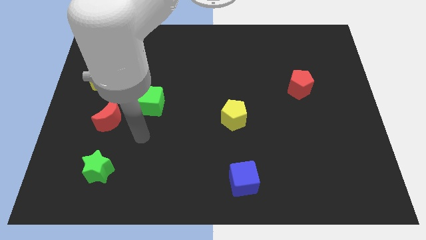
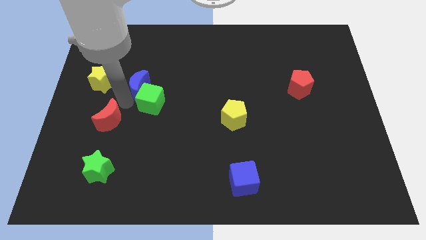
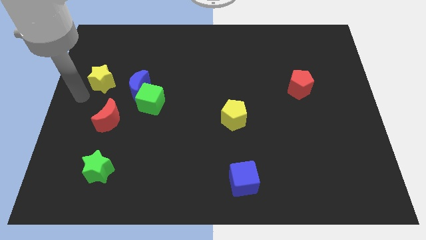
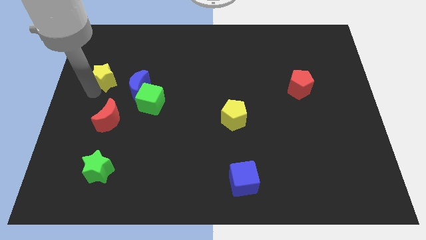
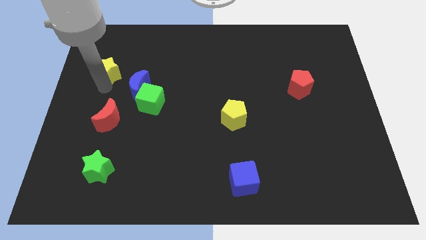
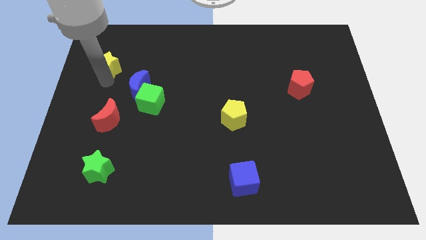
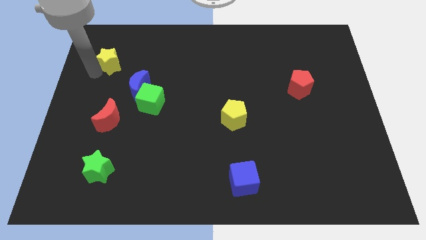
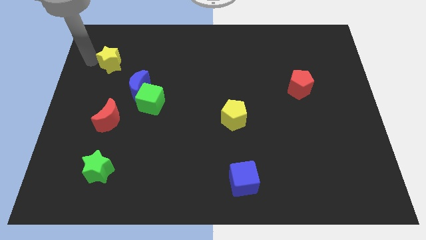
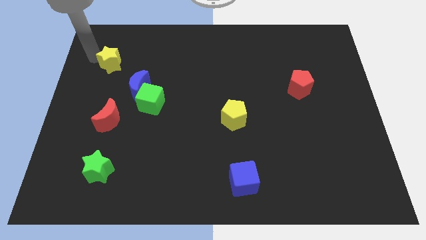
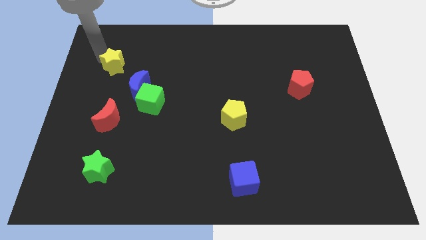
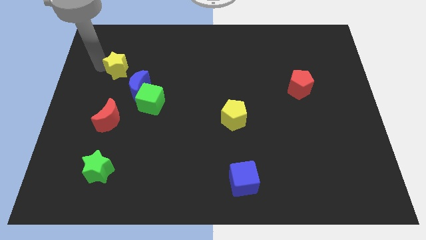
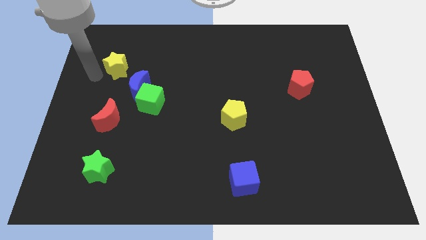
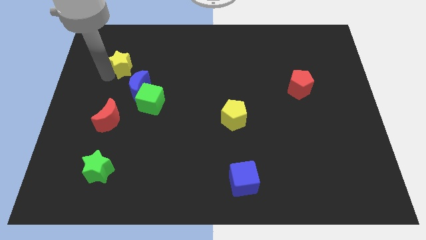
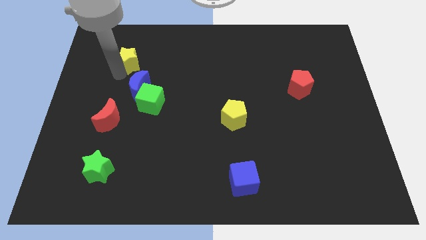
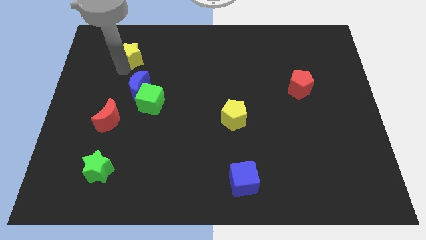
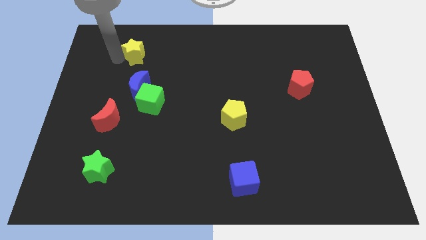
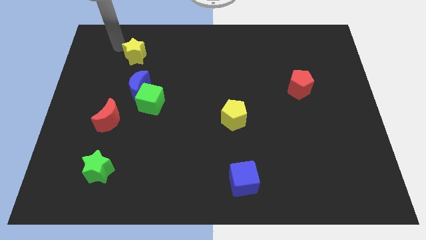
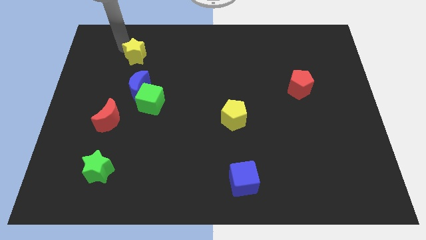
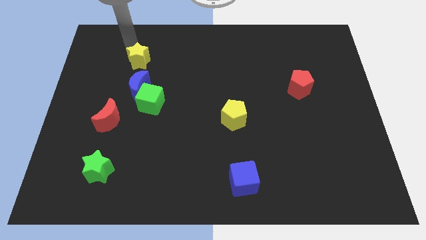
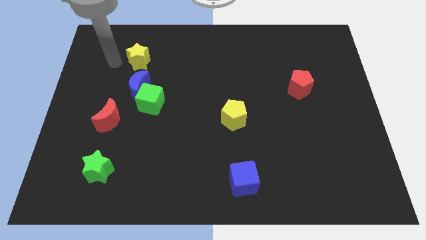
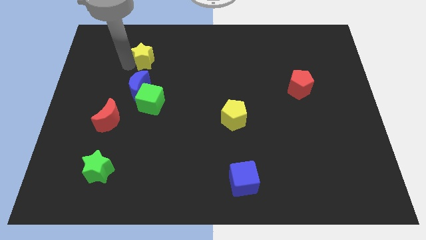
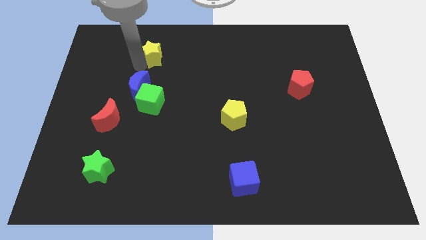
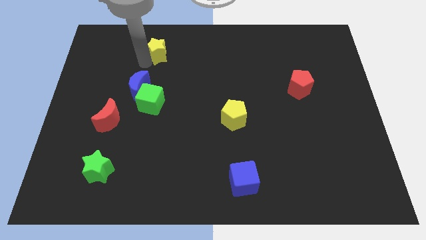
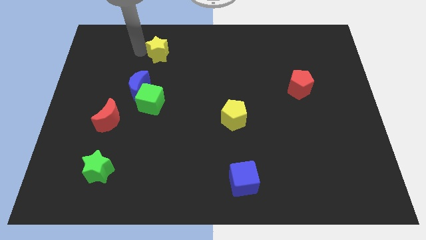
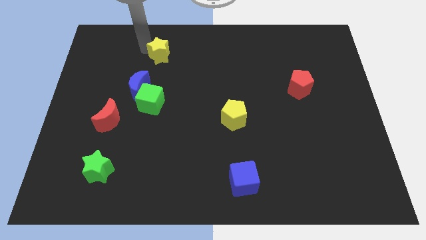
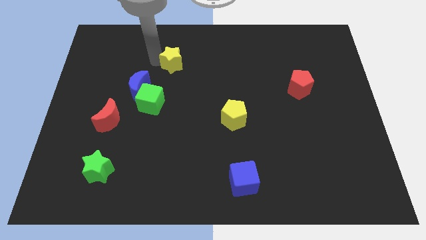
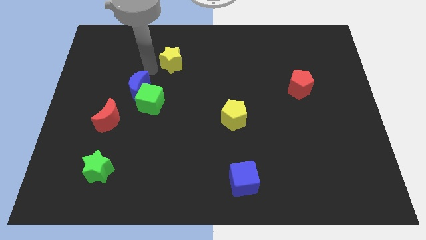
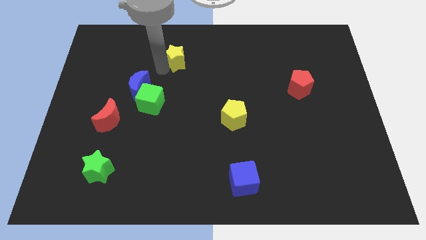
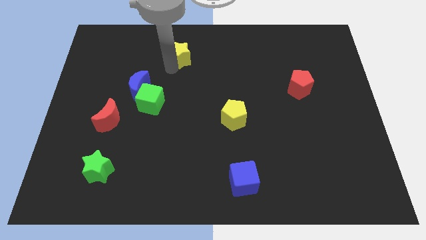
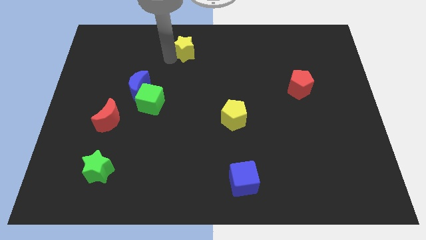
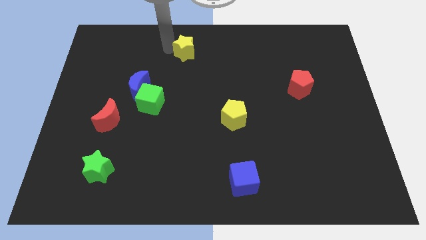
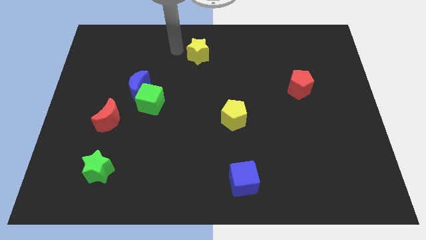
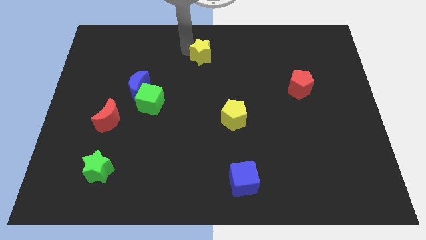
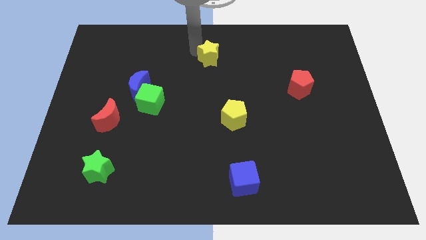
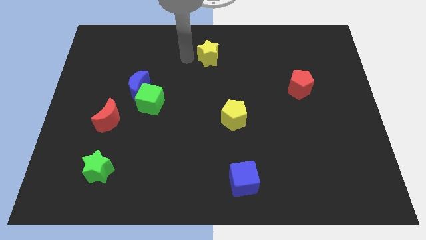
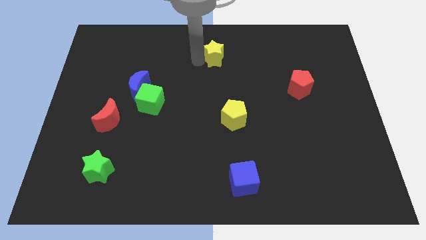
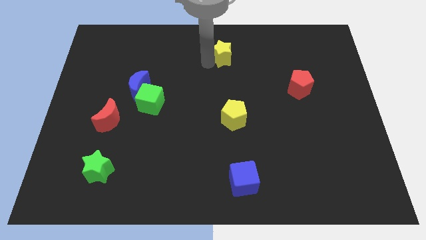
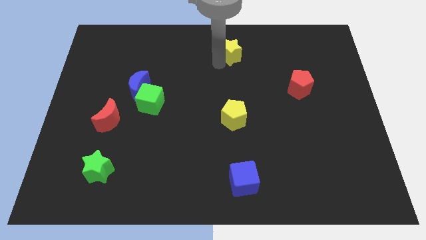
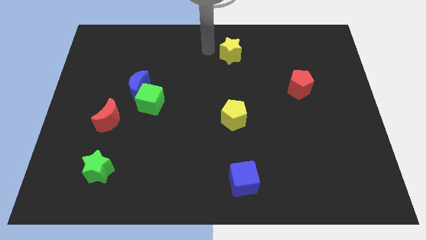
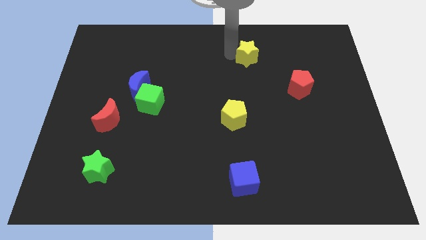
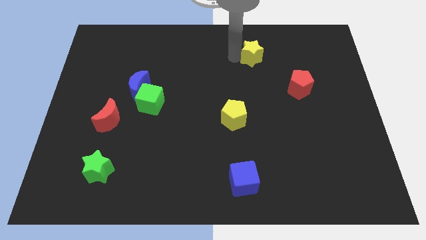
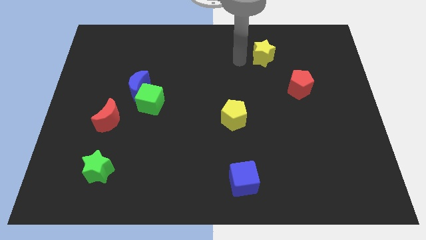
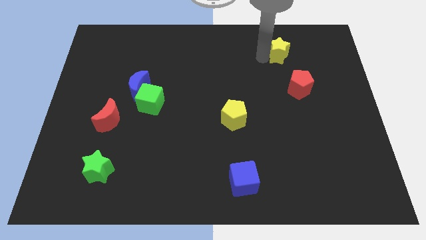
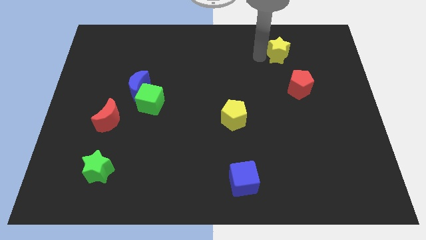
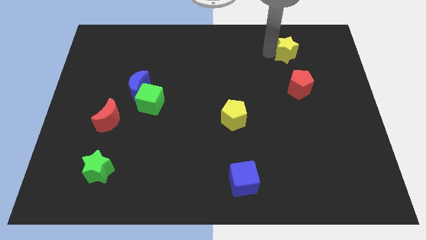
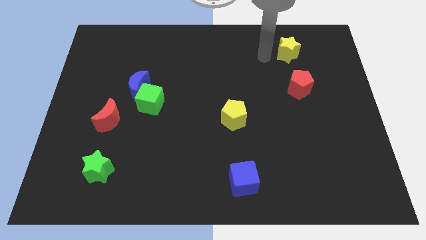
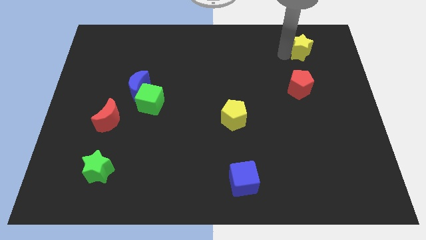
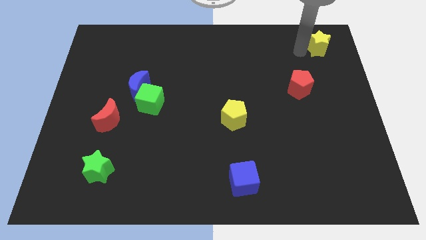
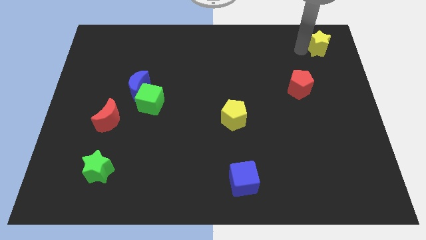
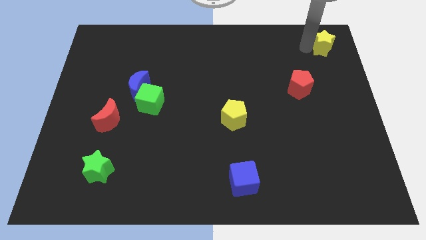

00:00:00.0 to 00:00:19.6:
move the yellow star to the upper right corner

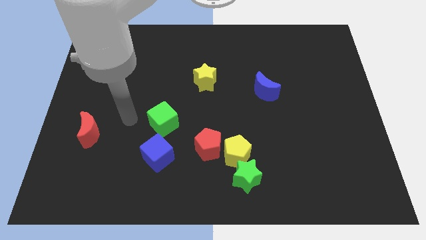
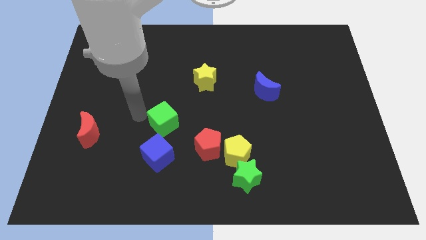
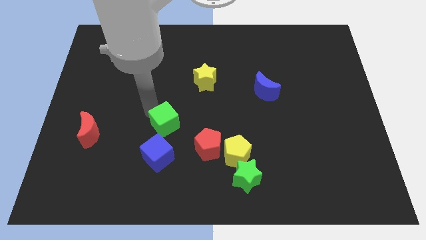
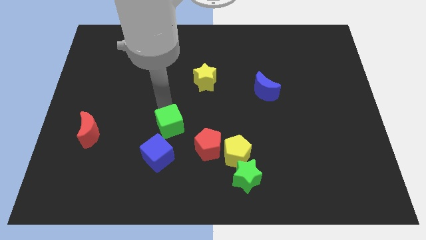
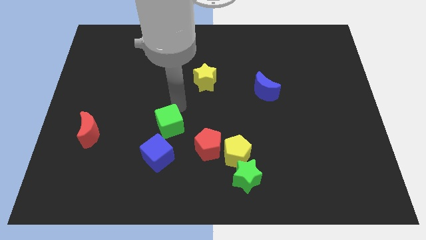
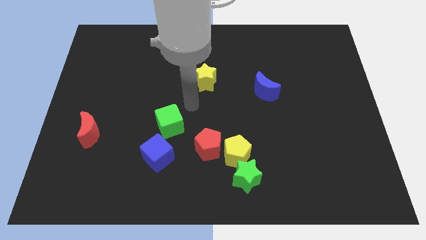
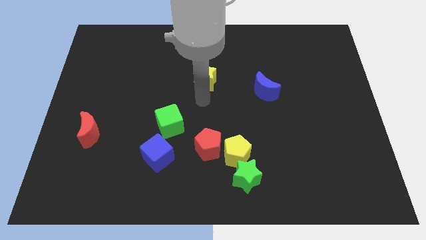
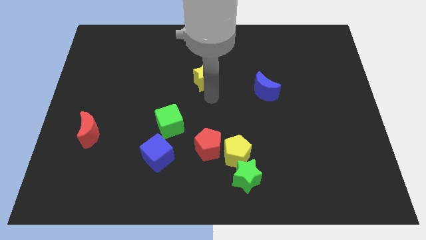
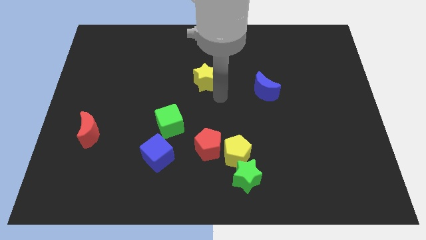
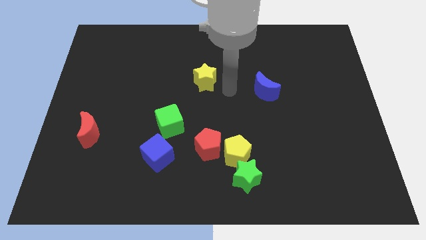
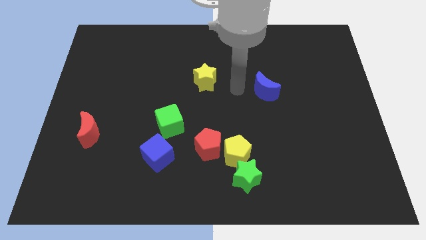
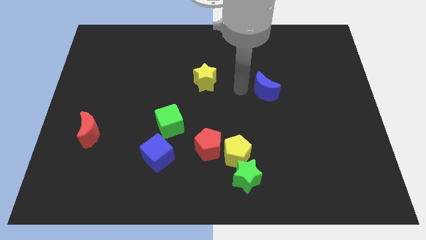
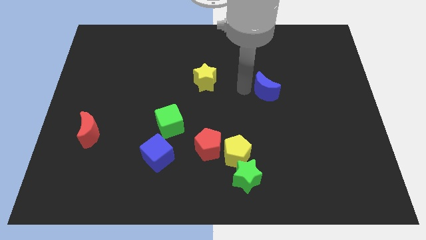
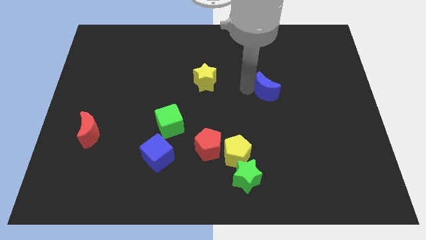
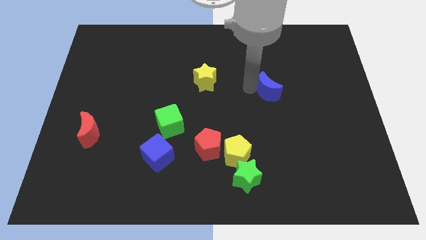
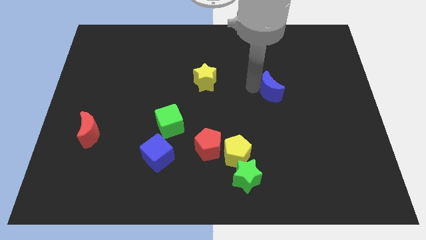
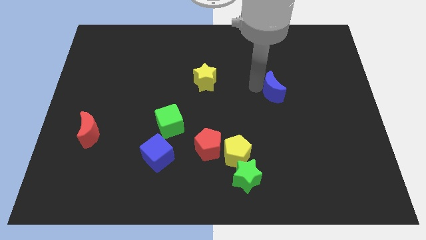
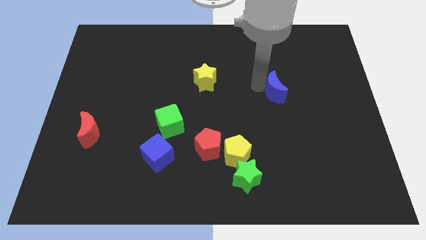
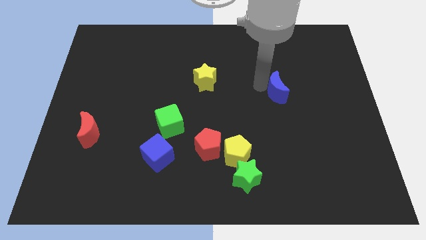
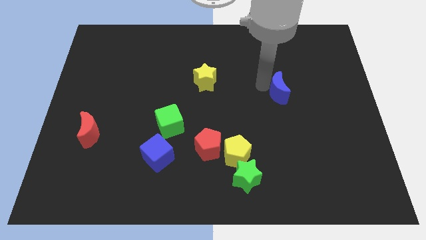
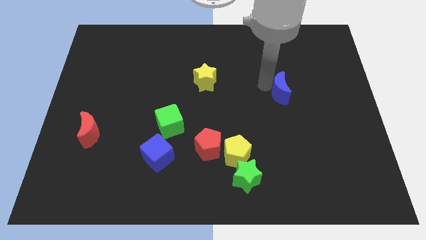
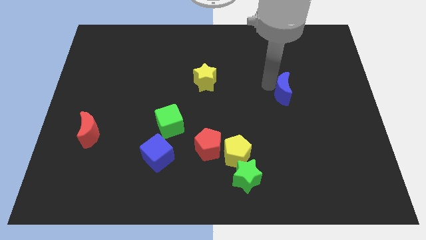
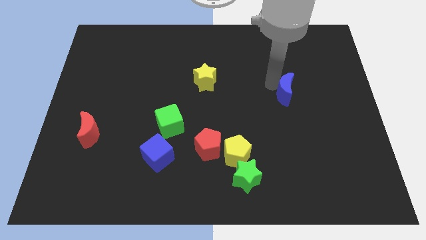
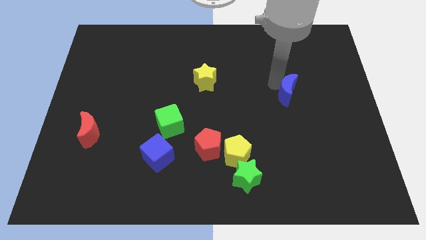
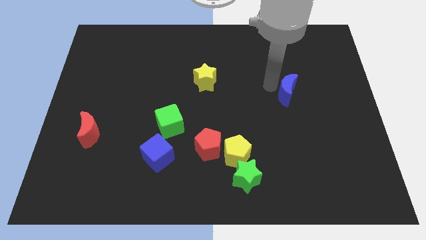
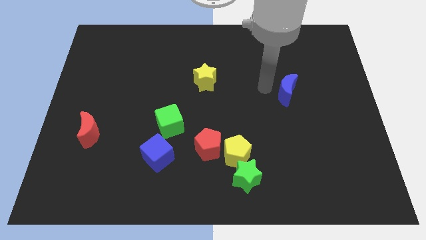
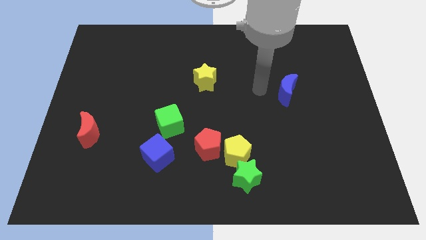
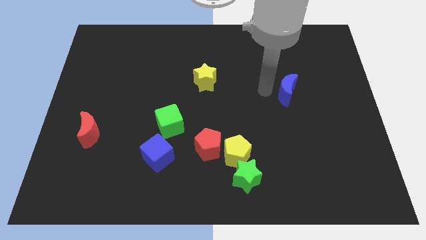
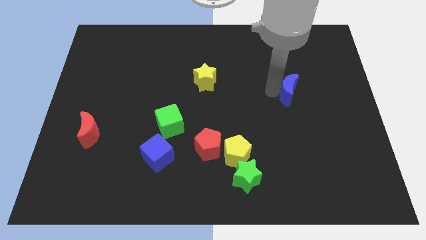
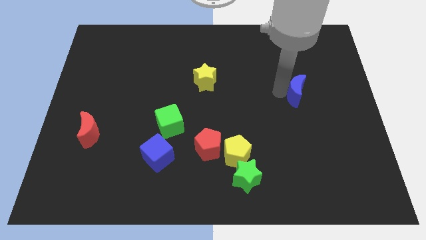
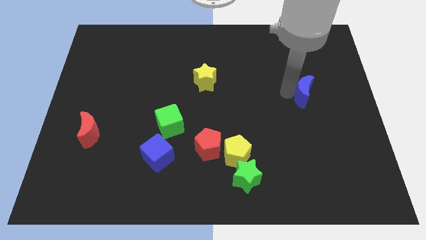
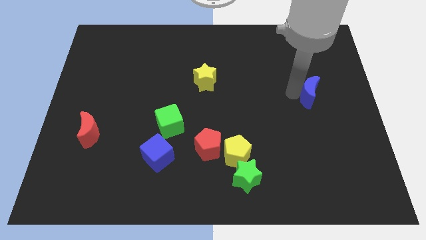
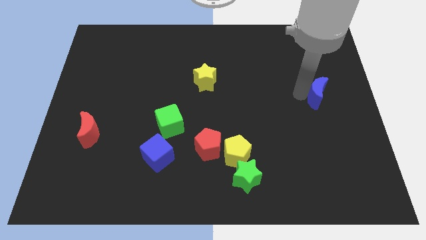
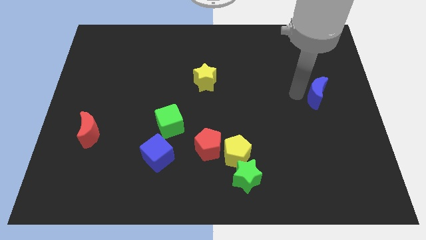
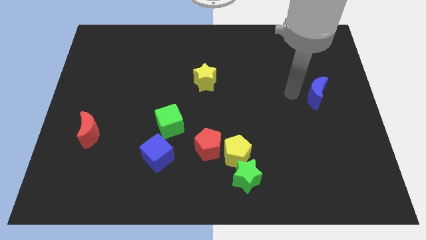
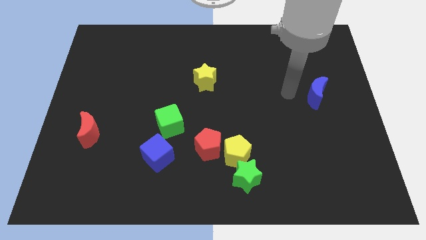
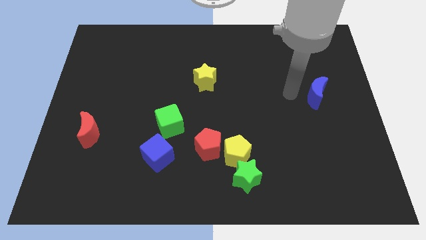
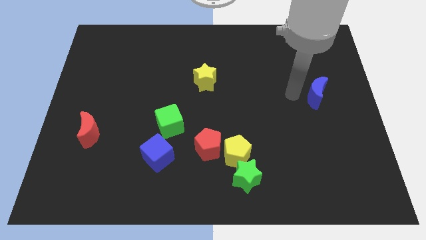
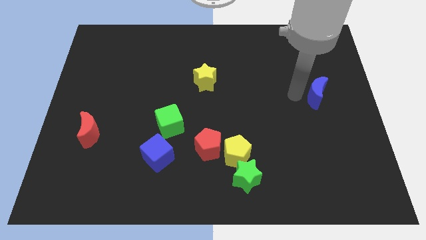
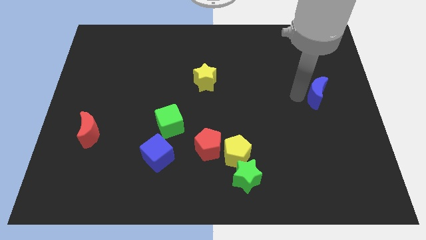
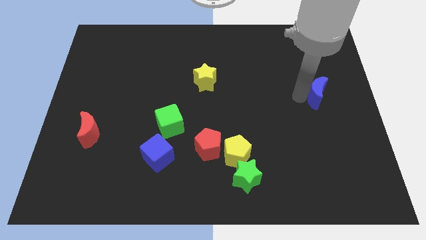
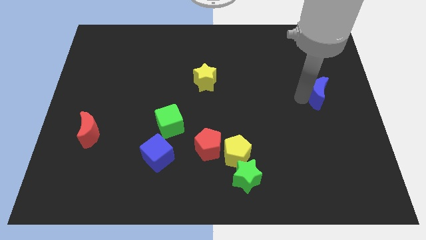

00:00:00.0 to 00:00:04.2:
put the blue moon to the right side
